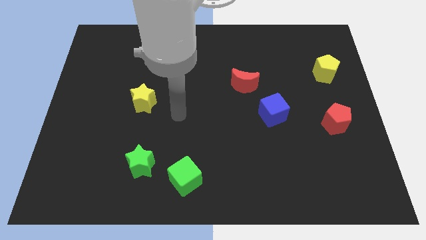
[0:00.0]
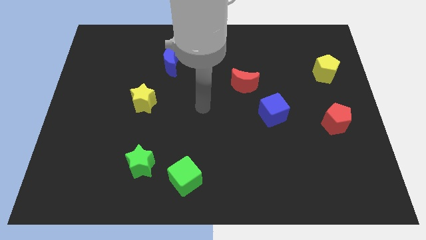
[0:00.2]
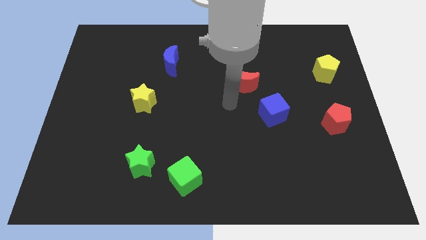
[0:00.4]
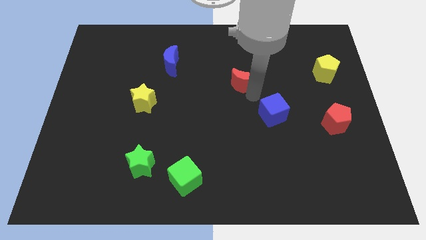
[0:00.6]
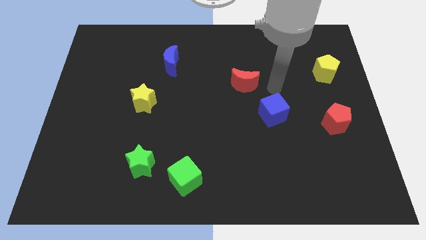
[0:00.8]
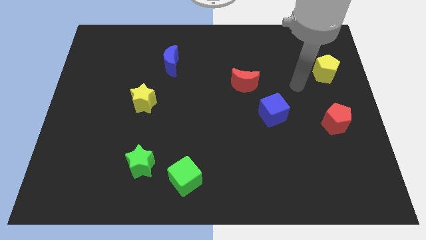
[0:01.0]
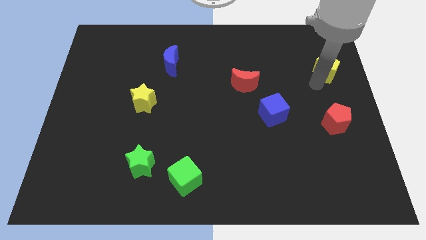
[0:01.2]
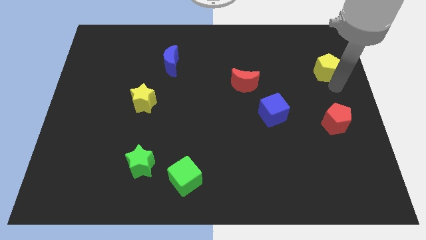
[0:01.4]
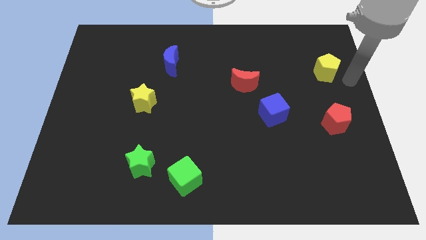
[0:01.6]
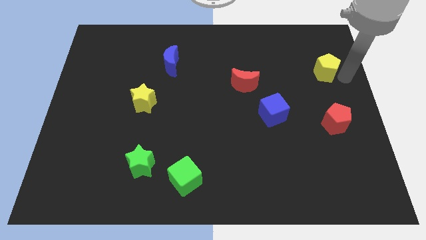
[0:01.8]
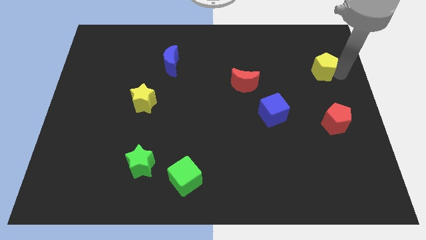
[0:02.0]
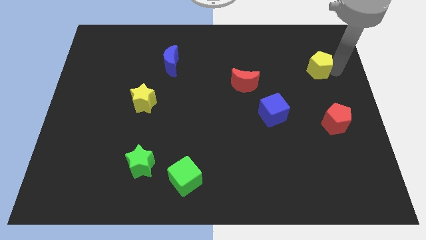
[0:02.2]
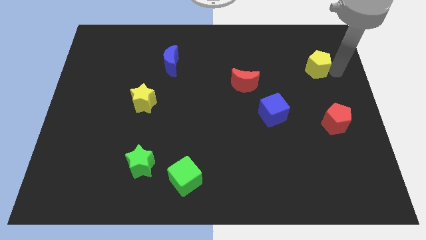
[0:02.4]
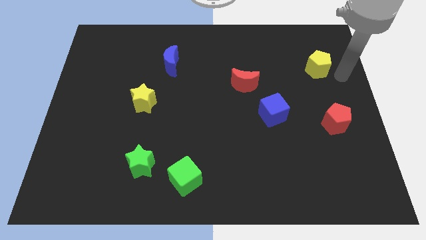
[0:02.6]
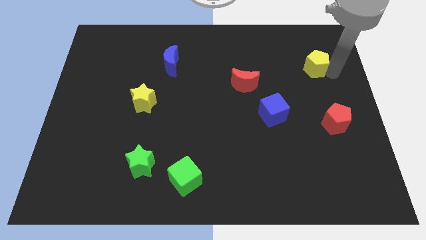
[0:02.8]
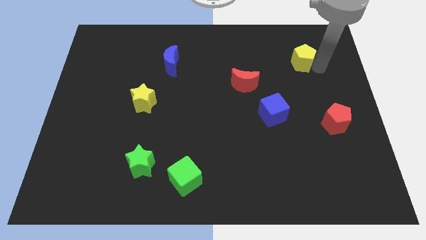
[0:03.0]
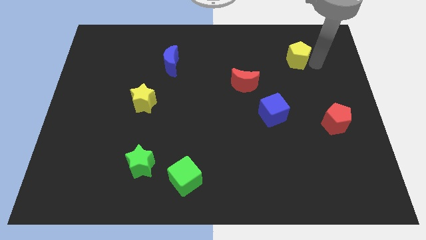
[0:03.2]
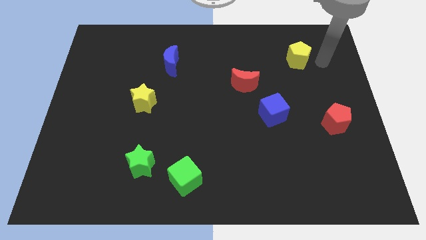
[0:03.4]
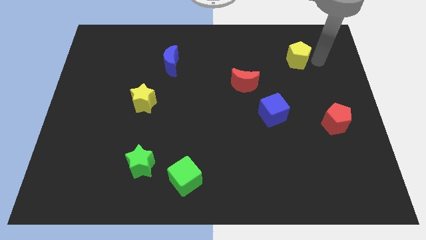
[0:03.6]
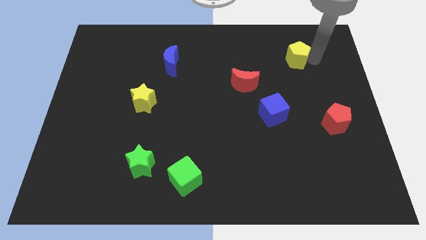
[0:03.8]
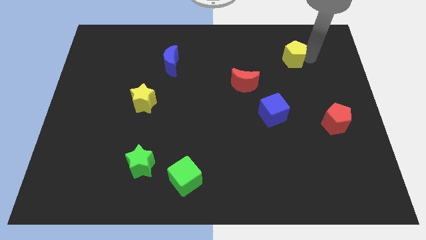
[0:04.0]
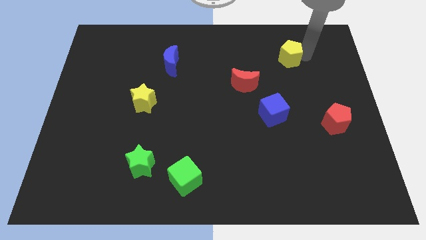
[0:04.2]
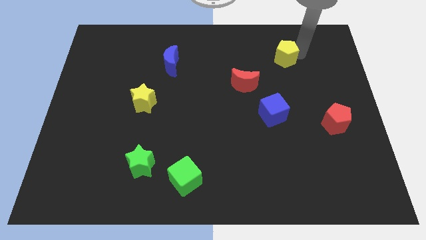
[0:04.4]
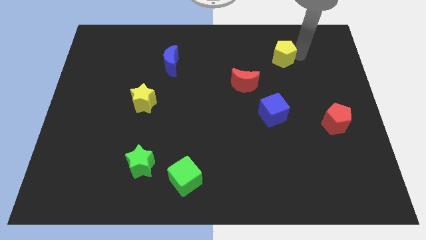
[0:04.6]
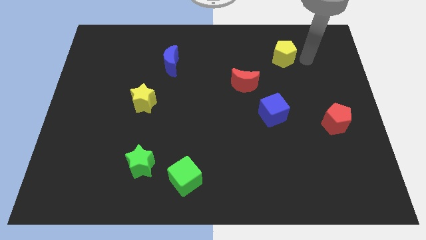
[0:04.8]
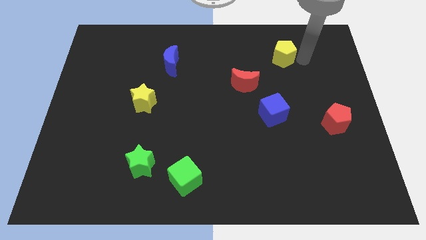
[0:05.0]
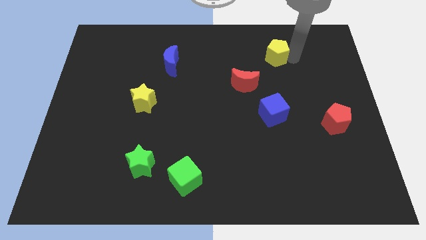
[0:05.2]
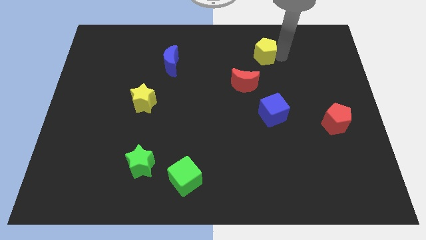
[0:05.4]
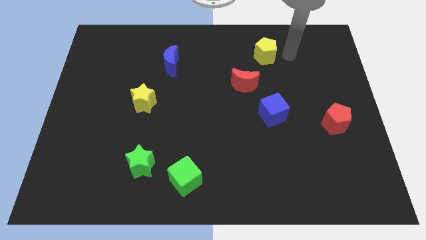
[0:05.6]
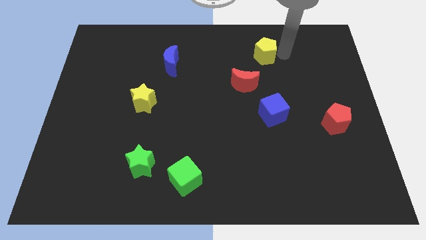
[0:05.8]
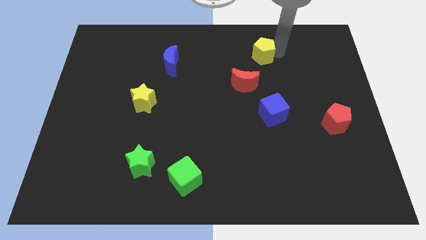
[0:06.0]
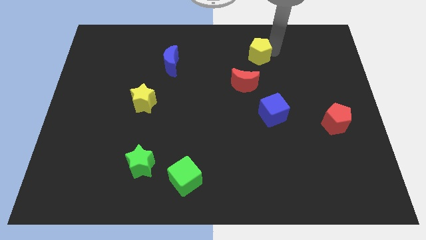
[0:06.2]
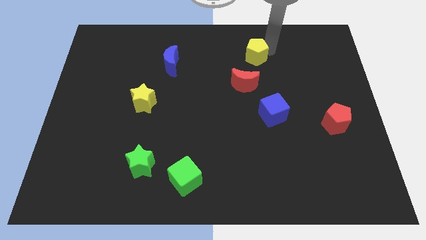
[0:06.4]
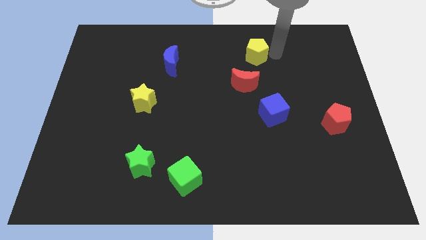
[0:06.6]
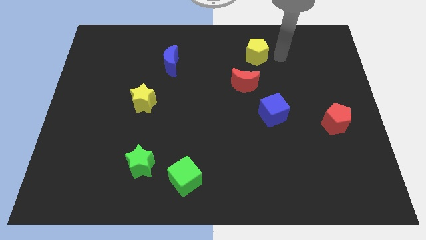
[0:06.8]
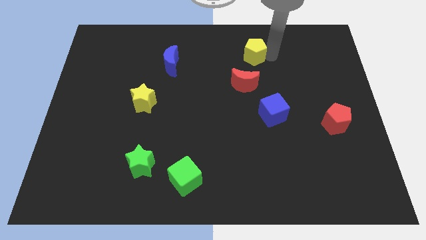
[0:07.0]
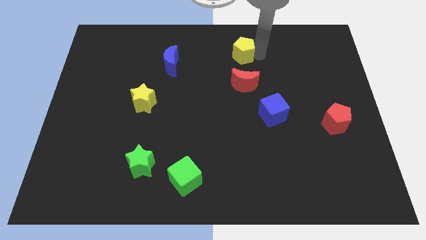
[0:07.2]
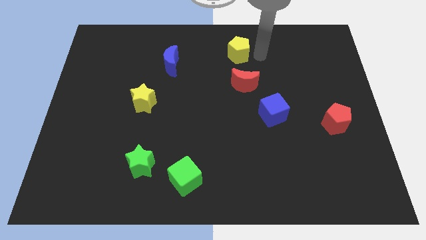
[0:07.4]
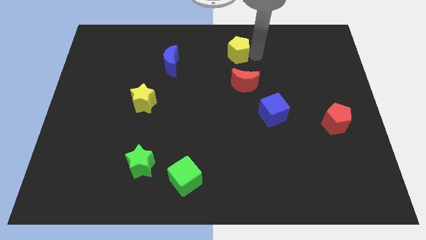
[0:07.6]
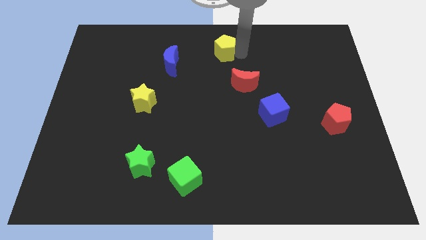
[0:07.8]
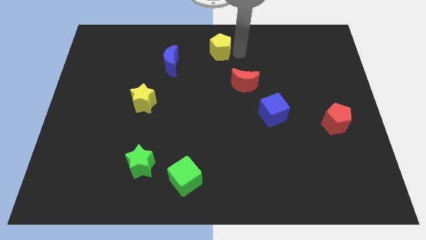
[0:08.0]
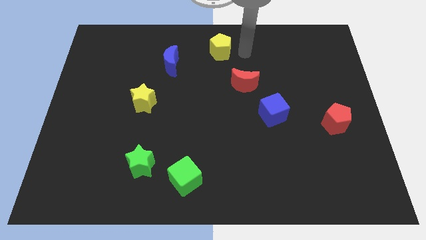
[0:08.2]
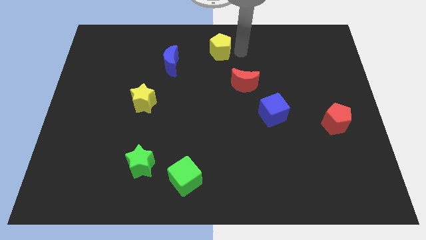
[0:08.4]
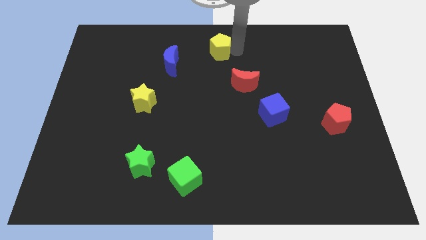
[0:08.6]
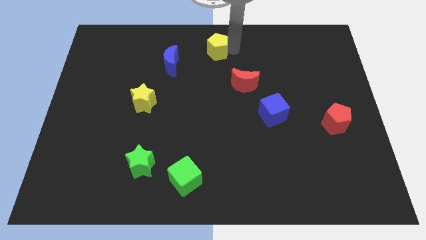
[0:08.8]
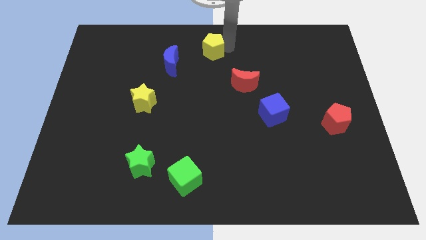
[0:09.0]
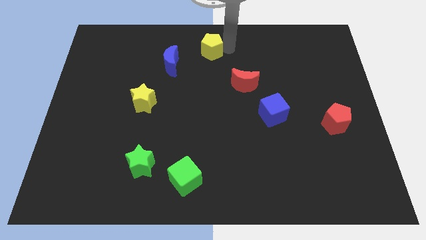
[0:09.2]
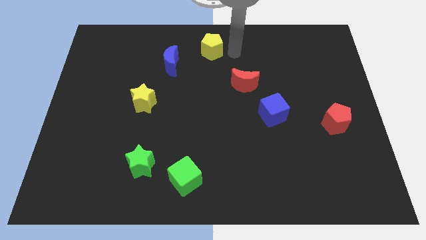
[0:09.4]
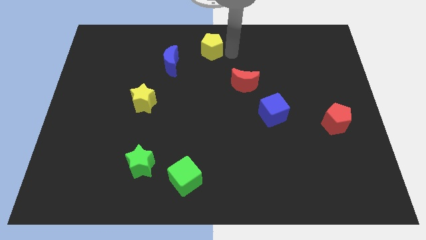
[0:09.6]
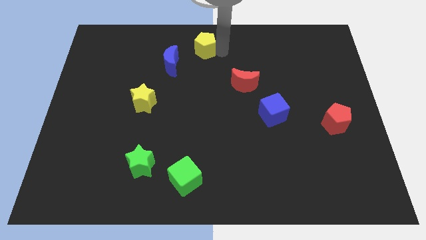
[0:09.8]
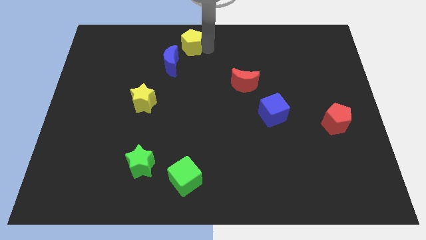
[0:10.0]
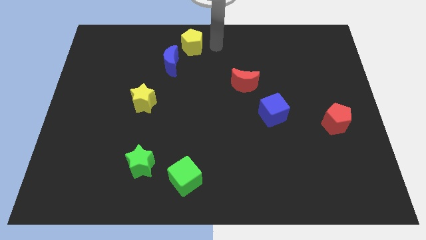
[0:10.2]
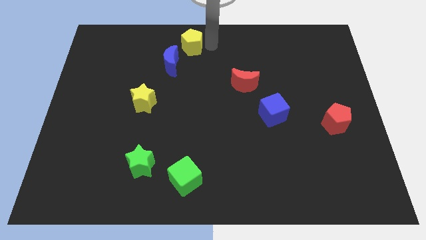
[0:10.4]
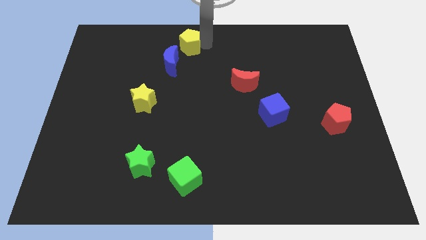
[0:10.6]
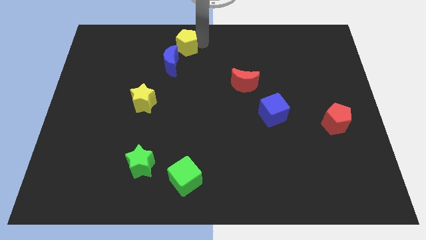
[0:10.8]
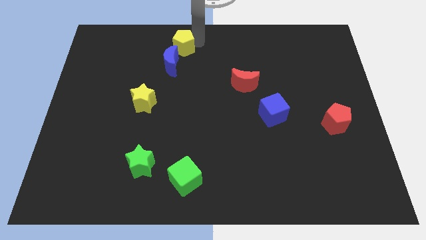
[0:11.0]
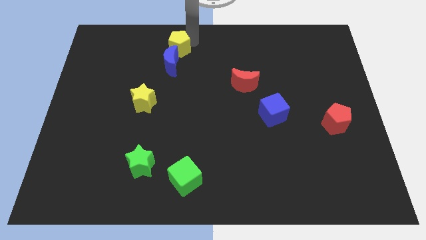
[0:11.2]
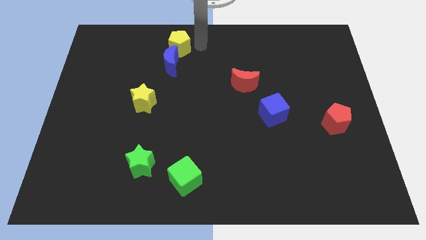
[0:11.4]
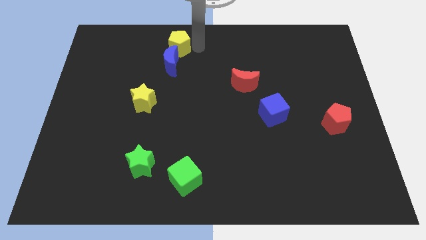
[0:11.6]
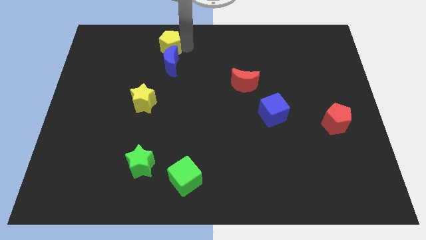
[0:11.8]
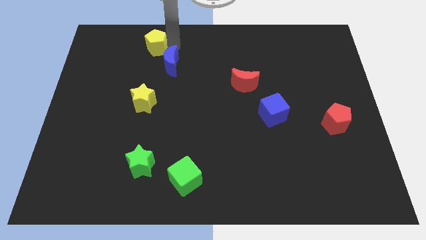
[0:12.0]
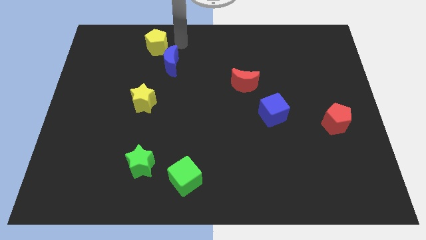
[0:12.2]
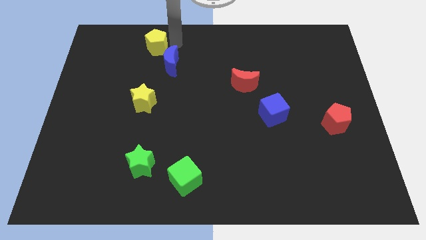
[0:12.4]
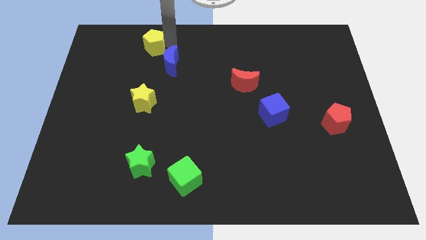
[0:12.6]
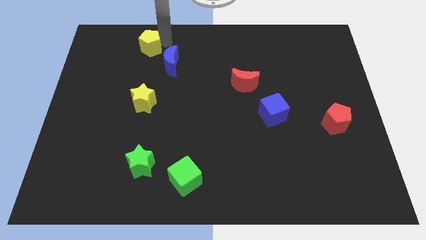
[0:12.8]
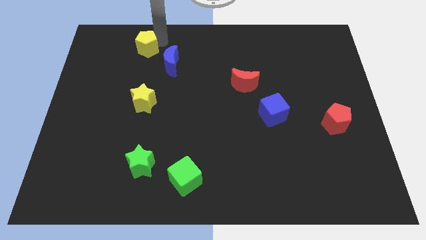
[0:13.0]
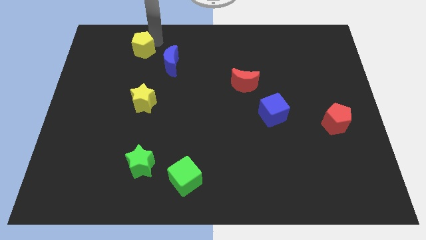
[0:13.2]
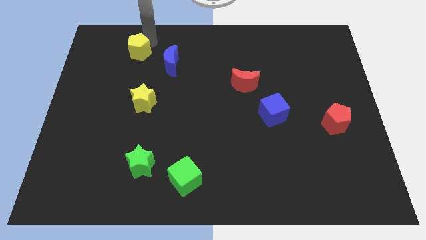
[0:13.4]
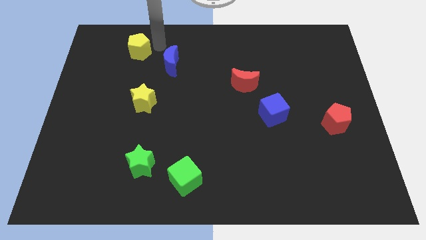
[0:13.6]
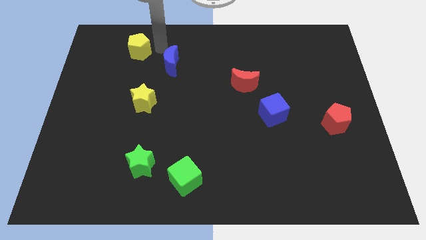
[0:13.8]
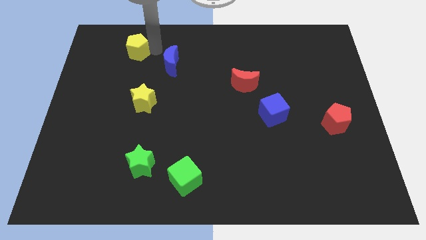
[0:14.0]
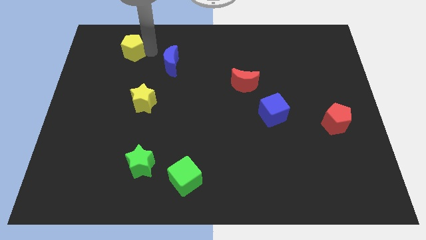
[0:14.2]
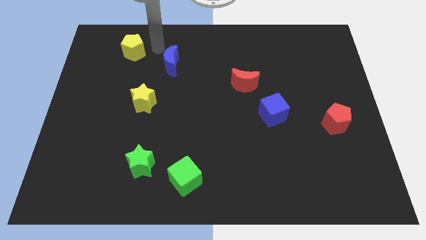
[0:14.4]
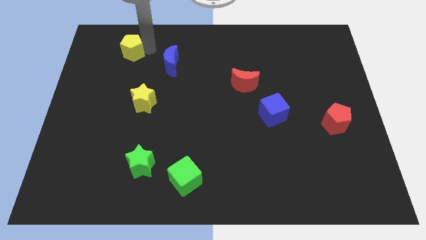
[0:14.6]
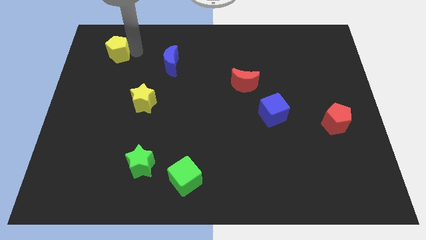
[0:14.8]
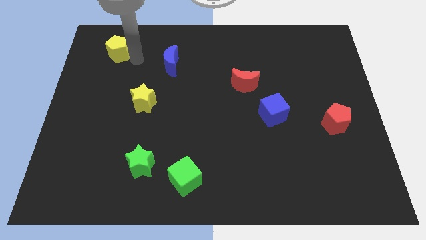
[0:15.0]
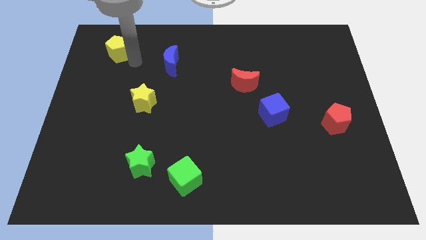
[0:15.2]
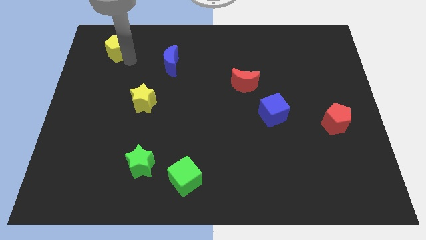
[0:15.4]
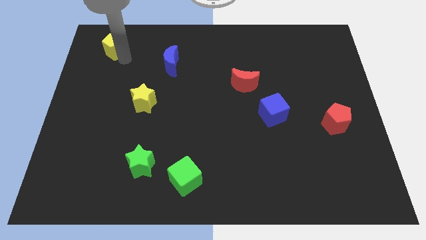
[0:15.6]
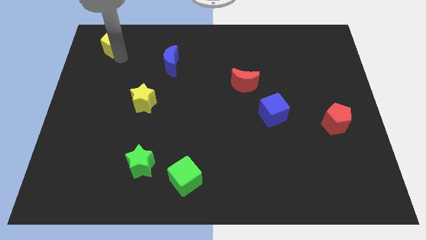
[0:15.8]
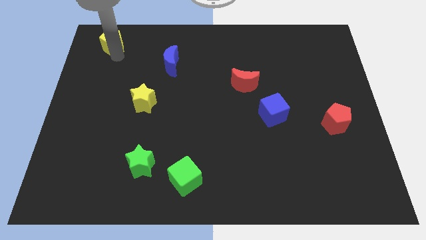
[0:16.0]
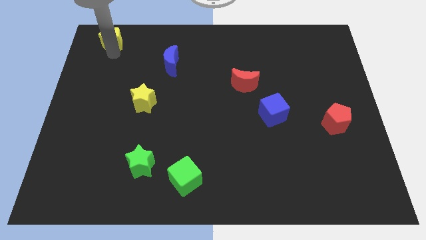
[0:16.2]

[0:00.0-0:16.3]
push the yellow pentagon to the top left corner

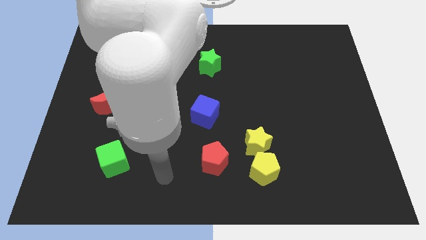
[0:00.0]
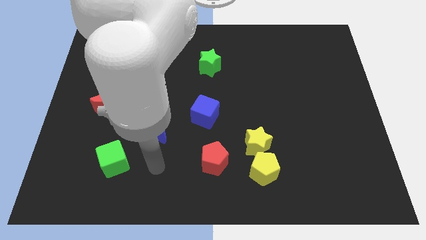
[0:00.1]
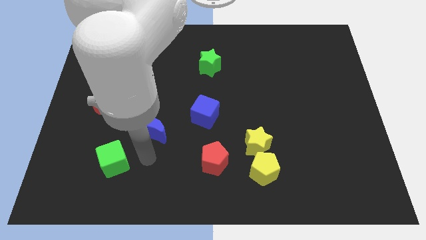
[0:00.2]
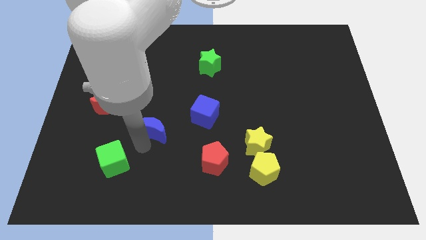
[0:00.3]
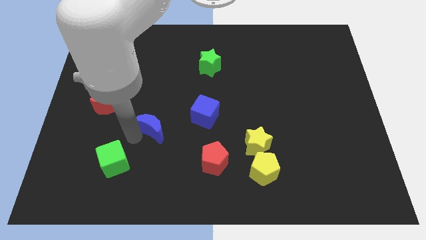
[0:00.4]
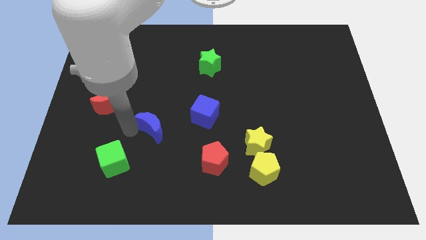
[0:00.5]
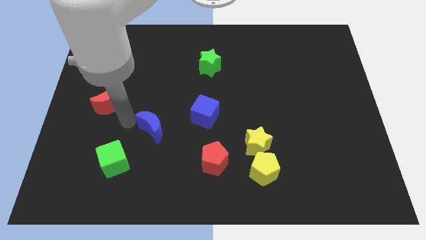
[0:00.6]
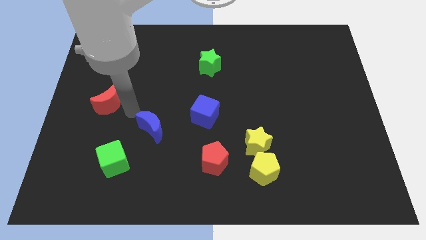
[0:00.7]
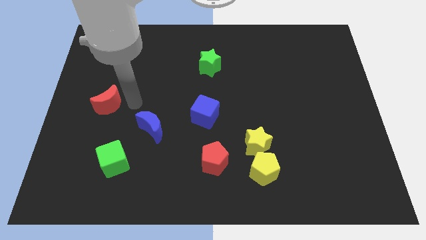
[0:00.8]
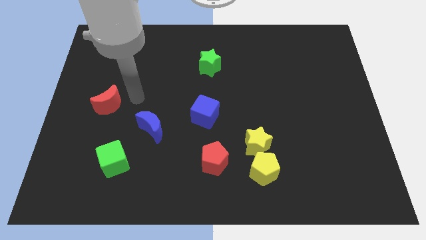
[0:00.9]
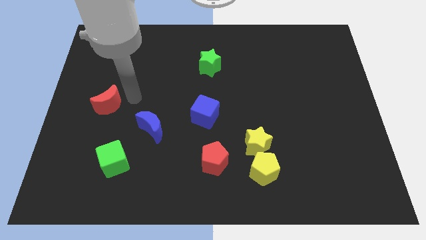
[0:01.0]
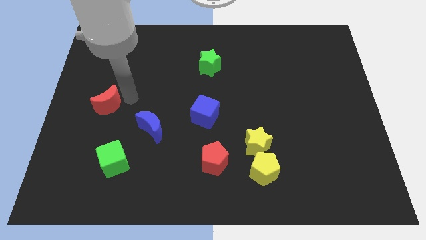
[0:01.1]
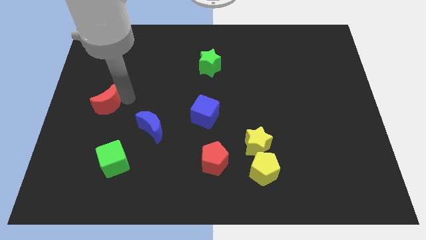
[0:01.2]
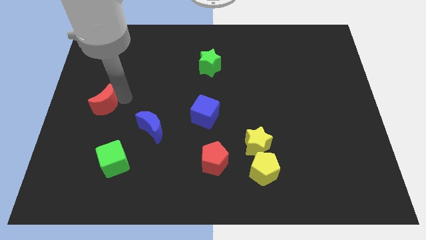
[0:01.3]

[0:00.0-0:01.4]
push the red moon to the left side of the board
